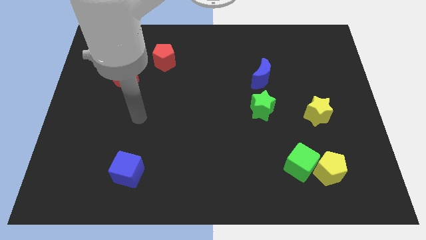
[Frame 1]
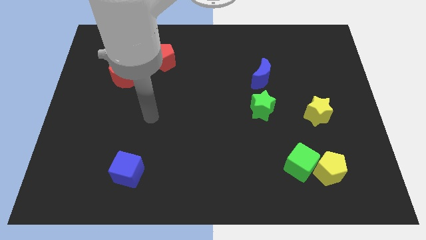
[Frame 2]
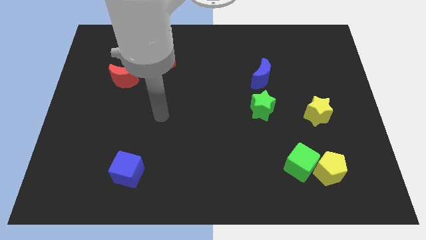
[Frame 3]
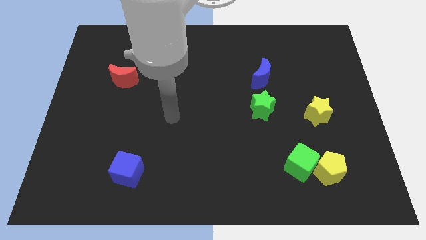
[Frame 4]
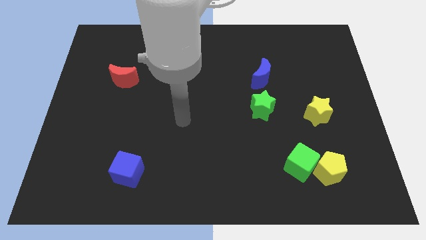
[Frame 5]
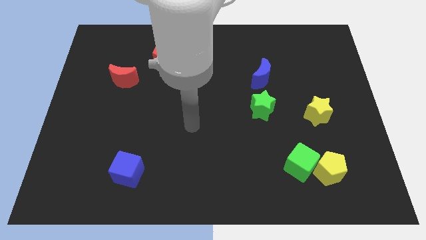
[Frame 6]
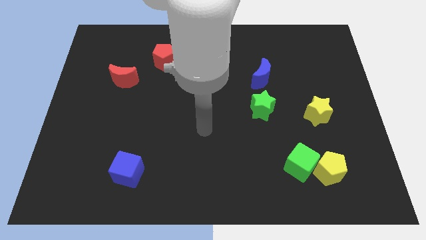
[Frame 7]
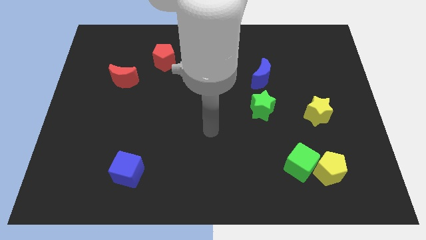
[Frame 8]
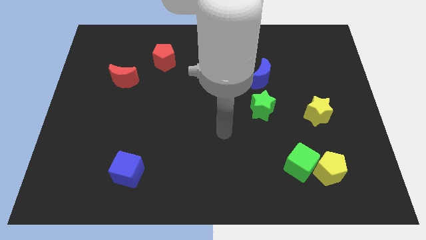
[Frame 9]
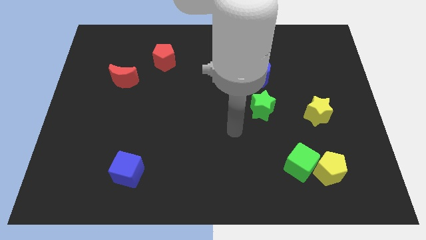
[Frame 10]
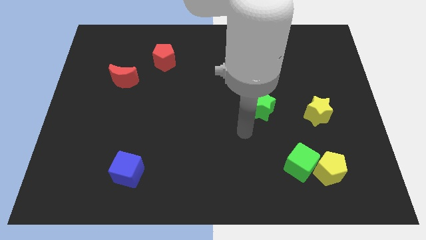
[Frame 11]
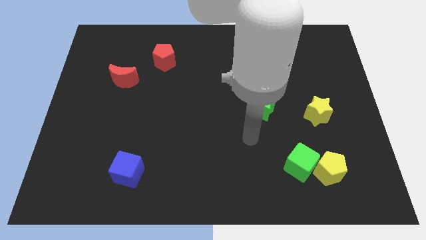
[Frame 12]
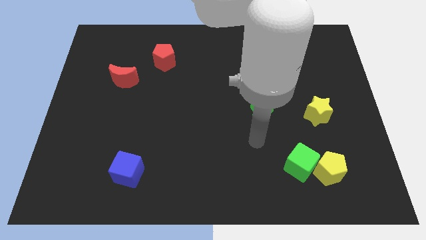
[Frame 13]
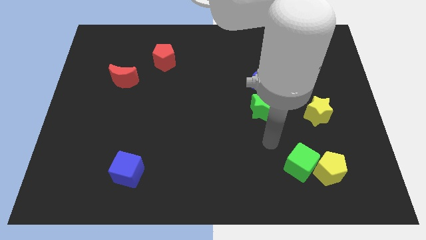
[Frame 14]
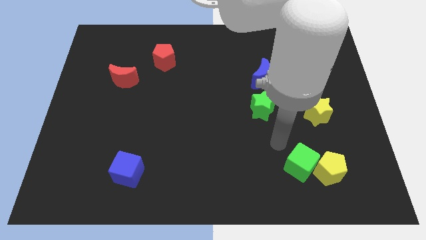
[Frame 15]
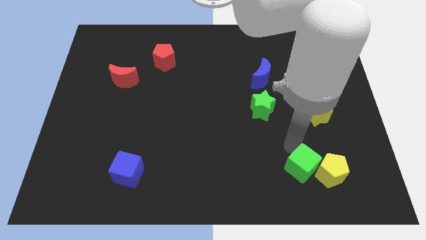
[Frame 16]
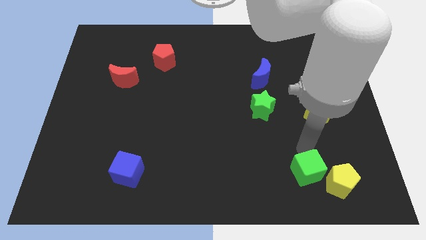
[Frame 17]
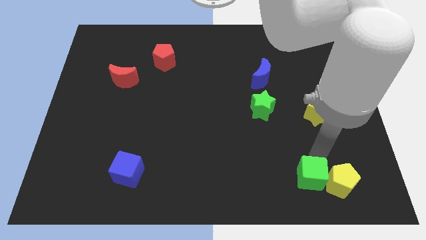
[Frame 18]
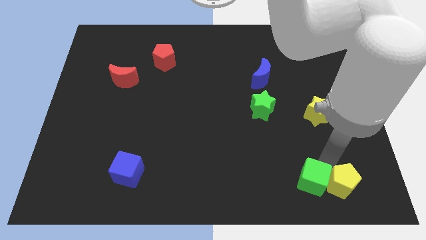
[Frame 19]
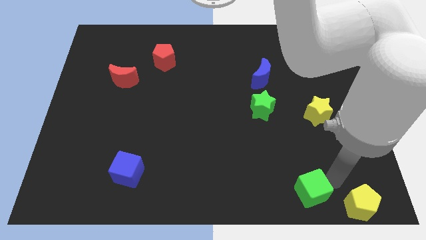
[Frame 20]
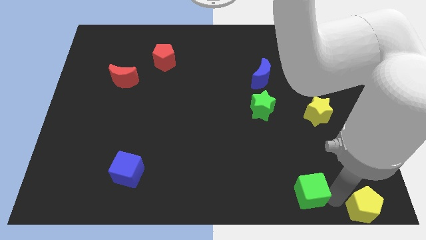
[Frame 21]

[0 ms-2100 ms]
separate the green cube from the yellow pentagon

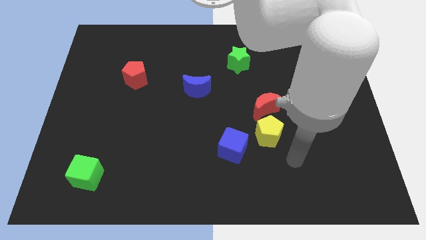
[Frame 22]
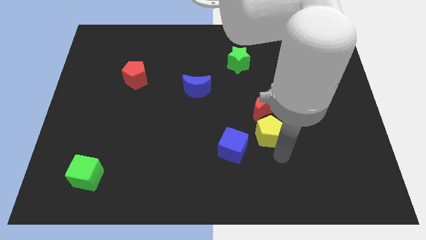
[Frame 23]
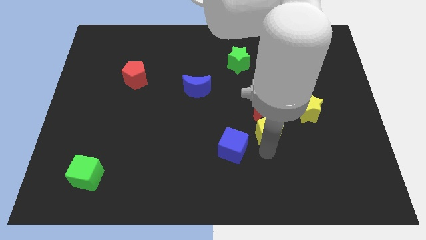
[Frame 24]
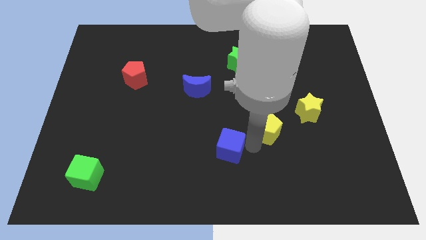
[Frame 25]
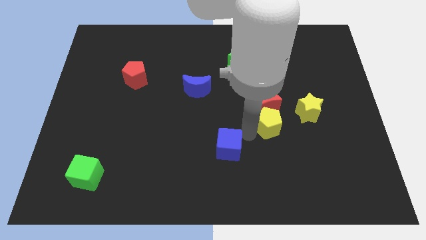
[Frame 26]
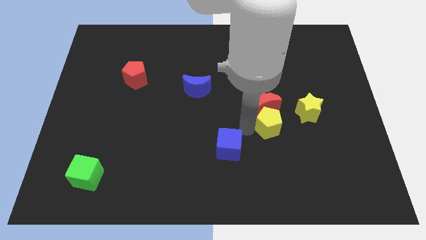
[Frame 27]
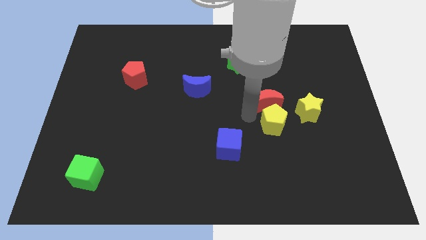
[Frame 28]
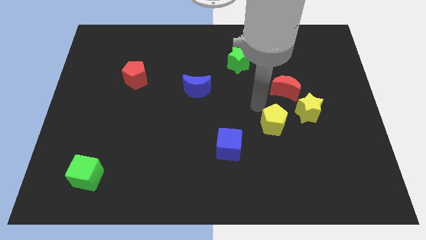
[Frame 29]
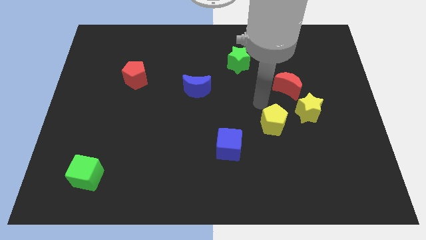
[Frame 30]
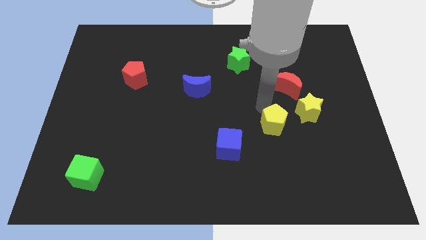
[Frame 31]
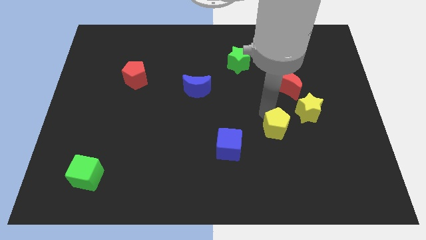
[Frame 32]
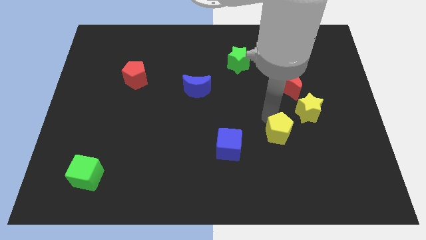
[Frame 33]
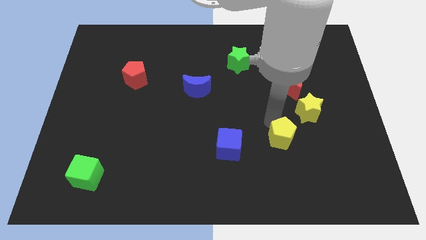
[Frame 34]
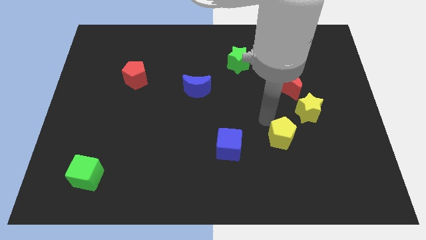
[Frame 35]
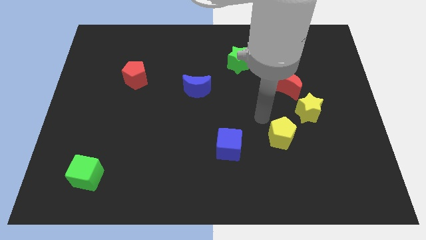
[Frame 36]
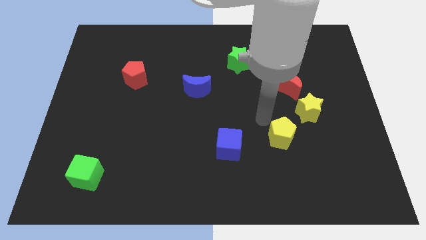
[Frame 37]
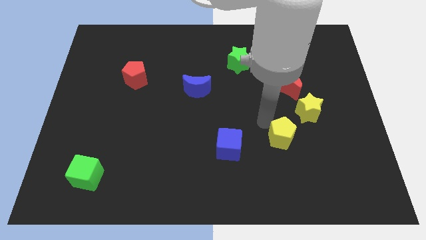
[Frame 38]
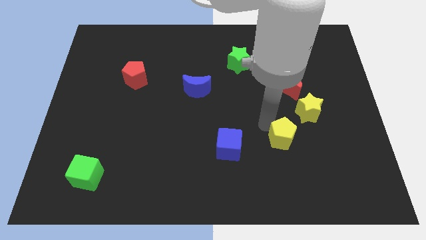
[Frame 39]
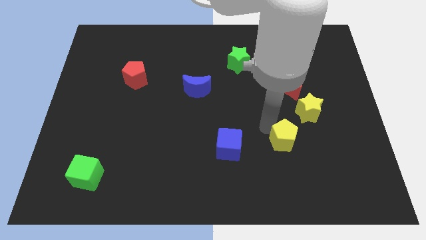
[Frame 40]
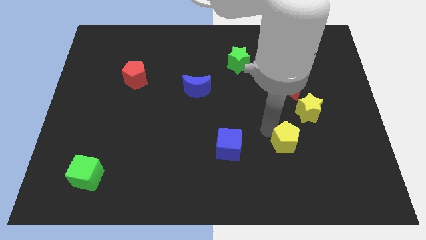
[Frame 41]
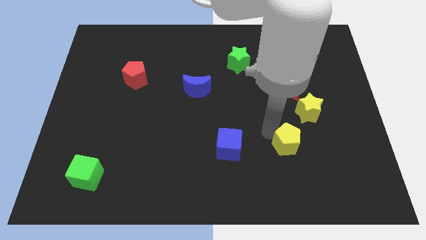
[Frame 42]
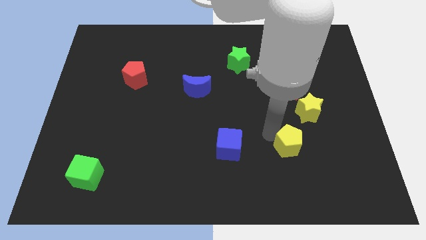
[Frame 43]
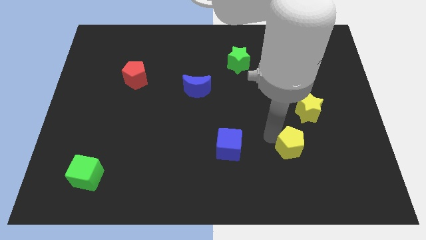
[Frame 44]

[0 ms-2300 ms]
move the yellow pentagon away from the red moon and blue cube

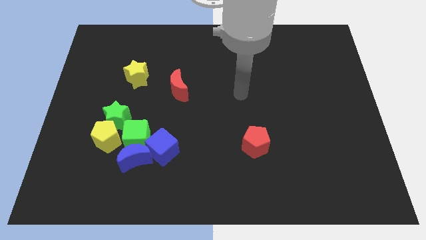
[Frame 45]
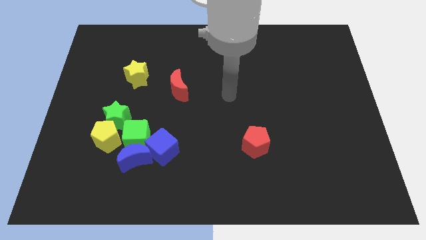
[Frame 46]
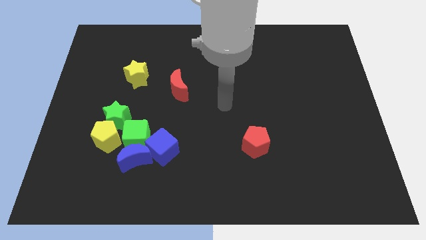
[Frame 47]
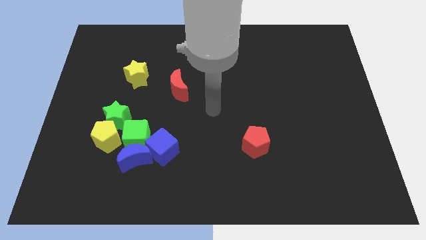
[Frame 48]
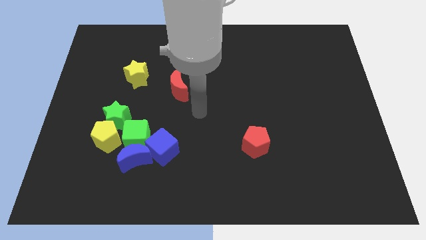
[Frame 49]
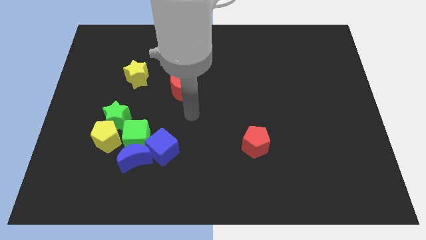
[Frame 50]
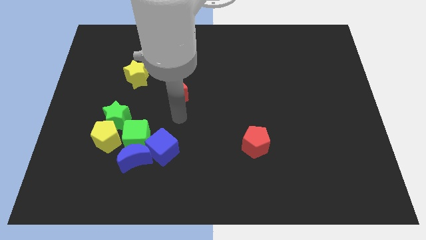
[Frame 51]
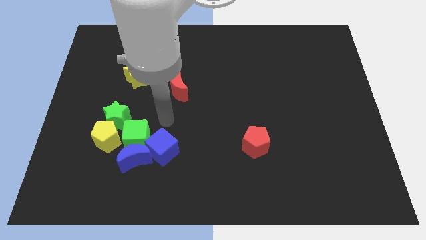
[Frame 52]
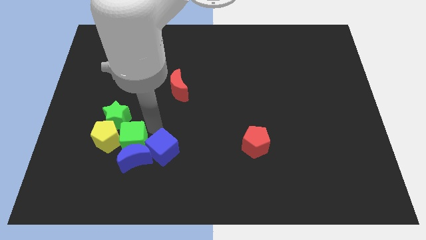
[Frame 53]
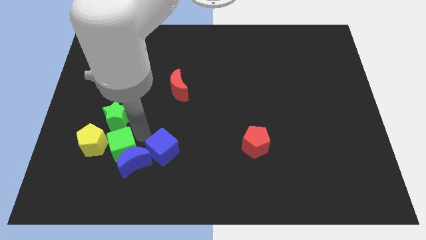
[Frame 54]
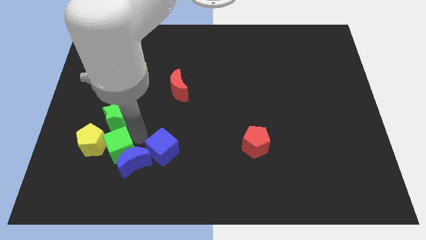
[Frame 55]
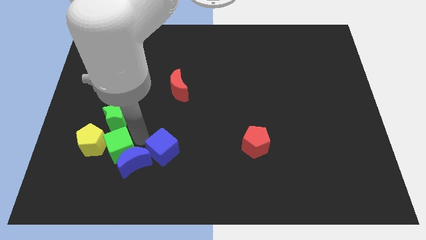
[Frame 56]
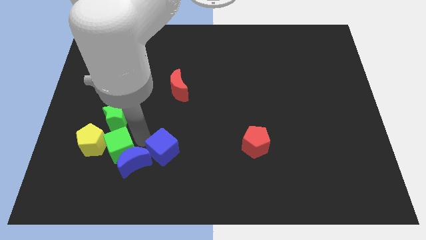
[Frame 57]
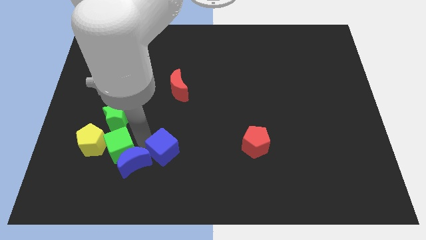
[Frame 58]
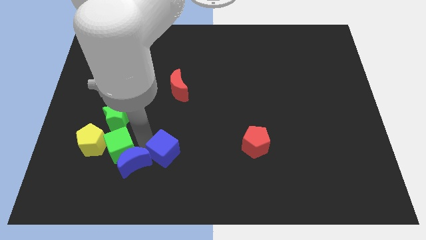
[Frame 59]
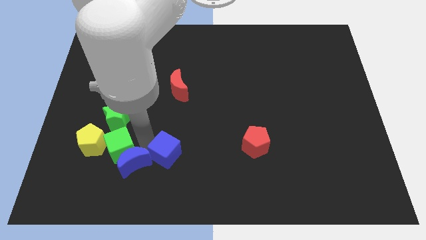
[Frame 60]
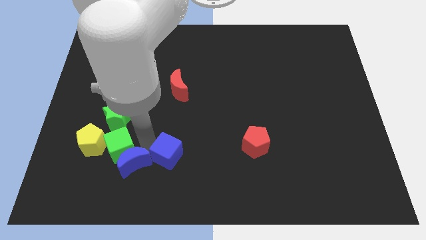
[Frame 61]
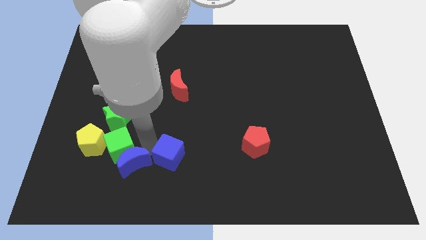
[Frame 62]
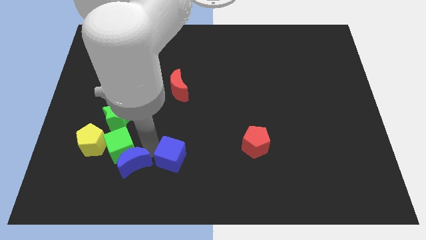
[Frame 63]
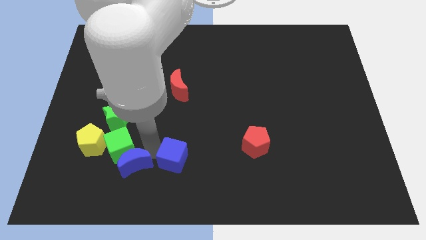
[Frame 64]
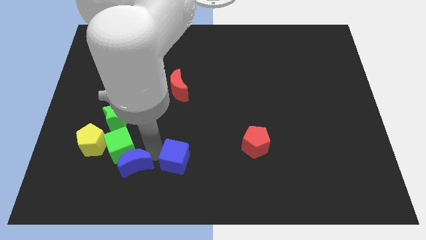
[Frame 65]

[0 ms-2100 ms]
separate the blue cube from the blue moon and green cube

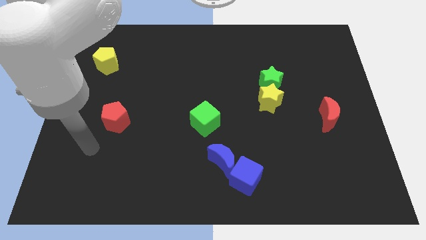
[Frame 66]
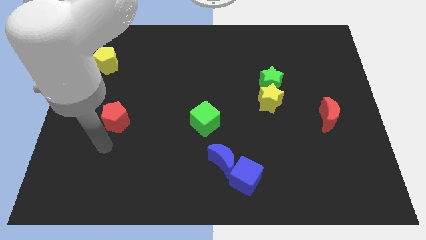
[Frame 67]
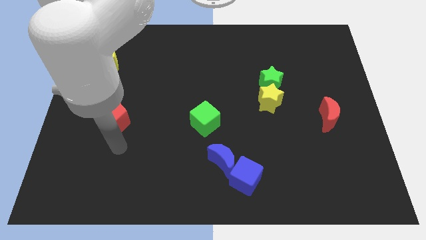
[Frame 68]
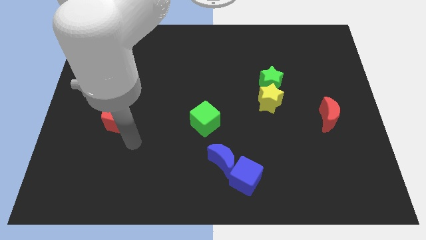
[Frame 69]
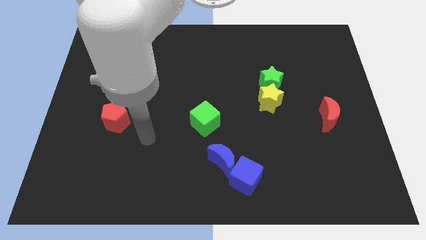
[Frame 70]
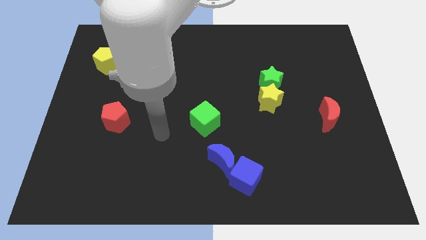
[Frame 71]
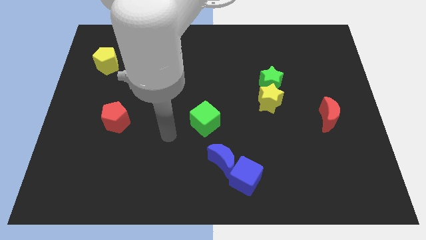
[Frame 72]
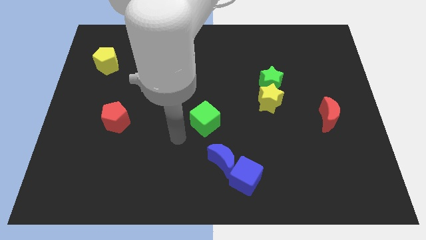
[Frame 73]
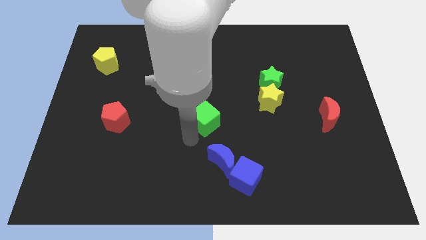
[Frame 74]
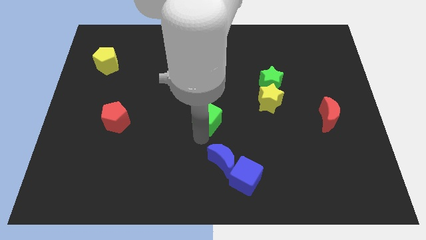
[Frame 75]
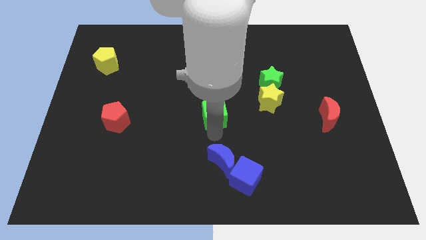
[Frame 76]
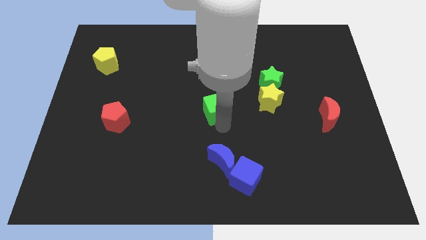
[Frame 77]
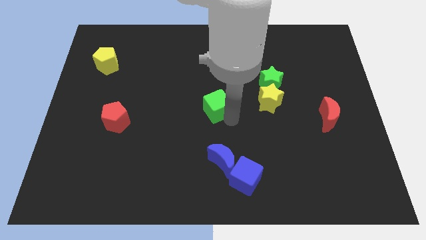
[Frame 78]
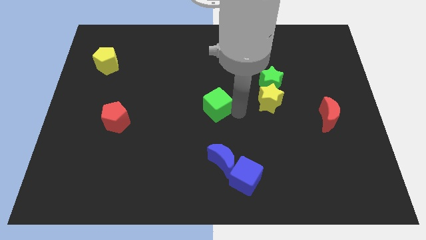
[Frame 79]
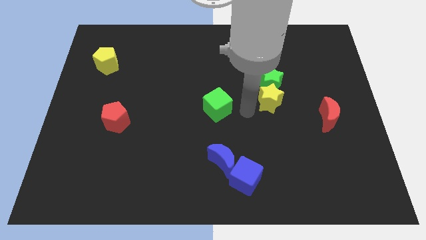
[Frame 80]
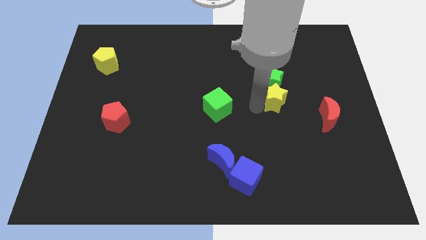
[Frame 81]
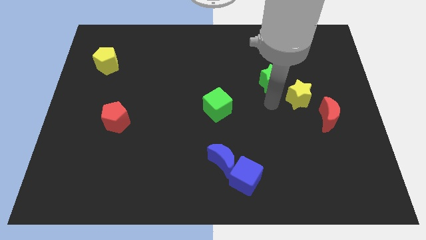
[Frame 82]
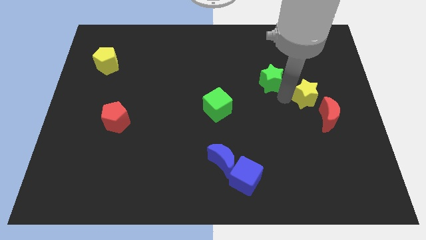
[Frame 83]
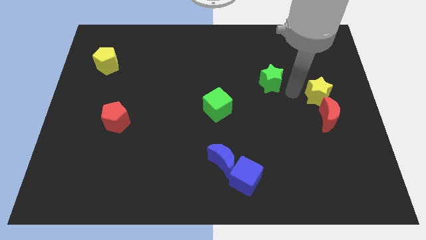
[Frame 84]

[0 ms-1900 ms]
move the green star away from the yellow star

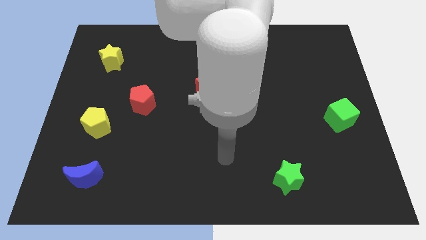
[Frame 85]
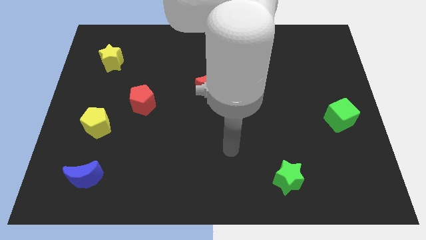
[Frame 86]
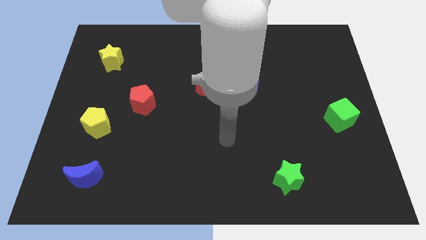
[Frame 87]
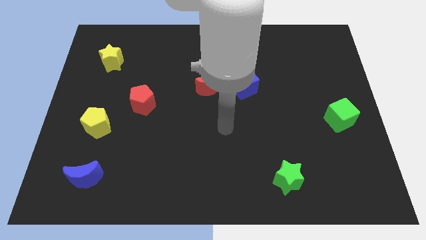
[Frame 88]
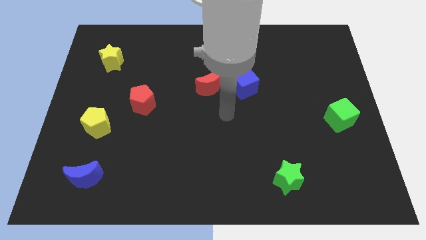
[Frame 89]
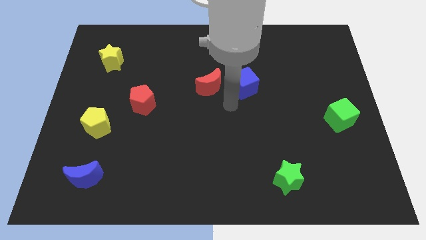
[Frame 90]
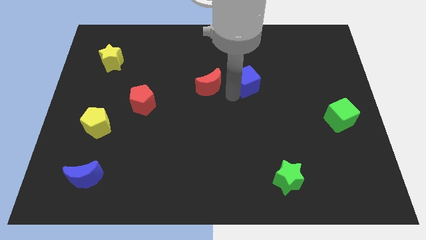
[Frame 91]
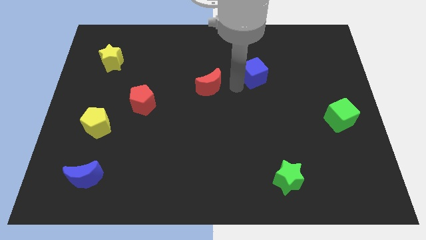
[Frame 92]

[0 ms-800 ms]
pull the red moon apart from the blue cube

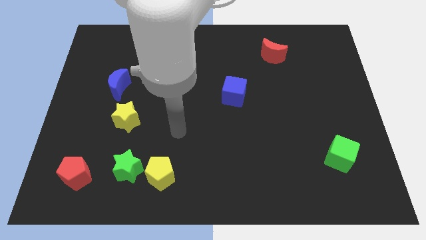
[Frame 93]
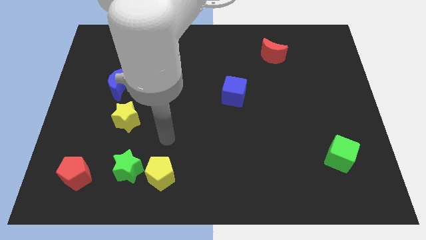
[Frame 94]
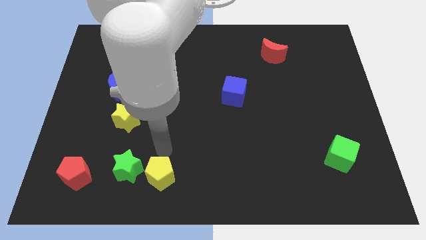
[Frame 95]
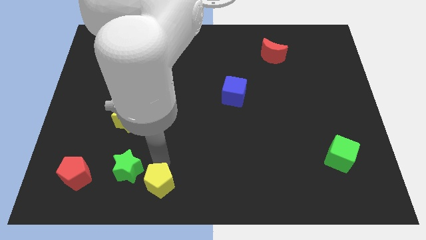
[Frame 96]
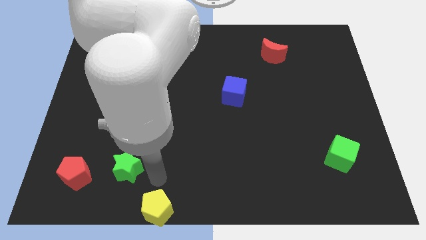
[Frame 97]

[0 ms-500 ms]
move the green star away from the yellow pentagon
